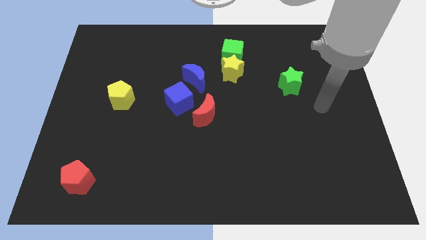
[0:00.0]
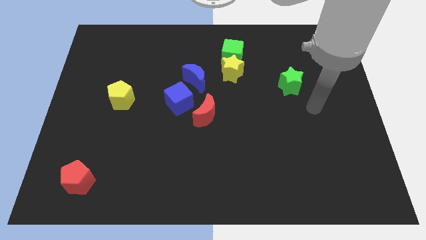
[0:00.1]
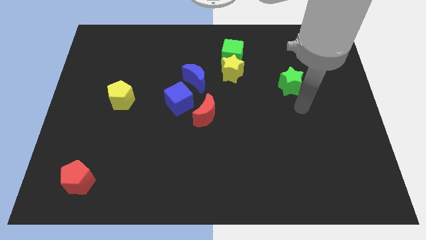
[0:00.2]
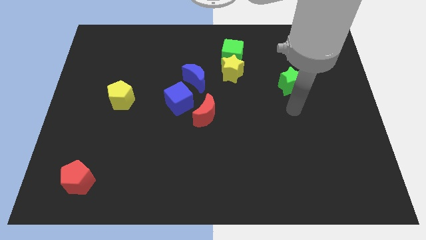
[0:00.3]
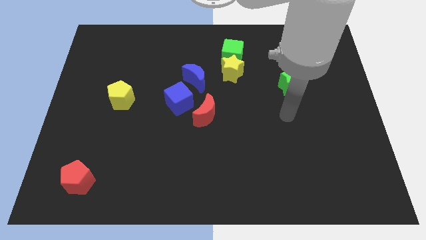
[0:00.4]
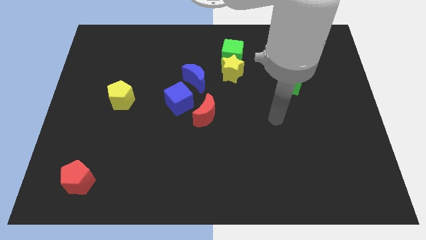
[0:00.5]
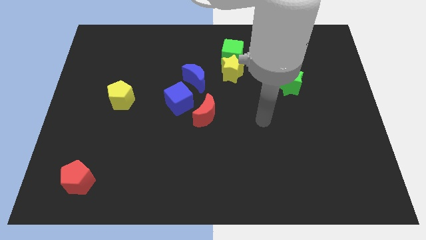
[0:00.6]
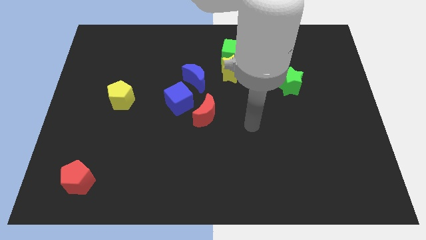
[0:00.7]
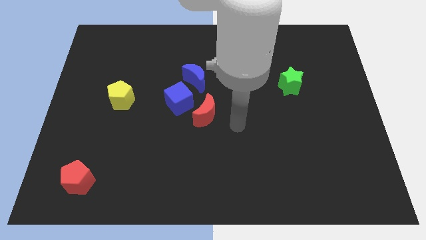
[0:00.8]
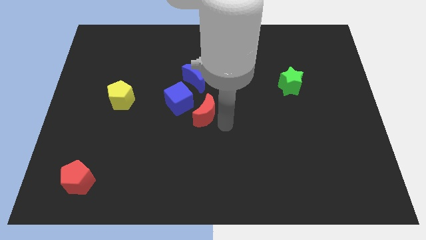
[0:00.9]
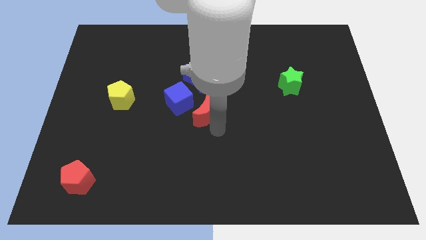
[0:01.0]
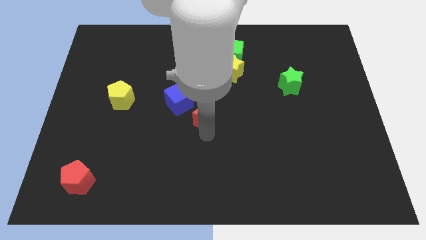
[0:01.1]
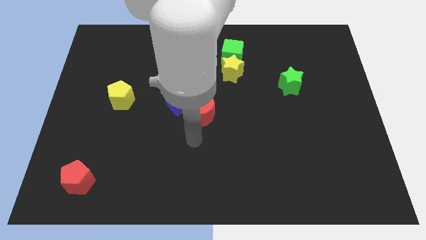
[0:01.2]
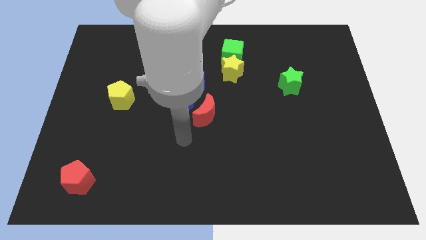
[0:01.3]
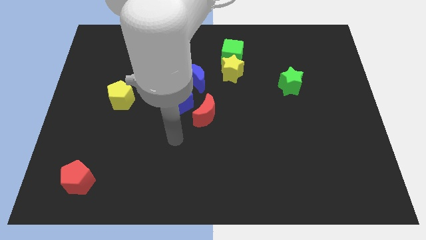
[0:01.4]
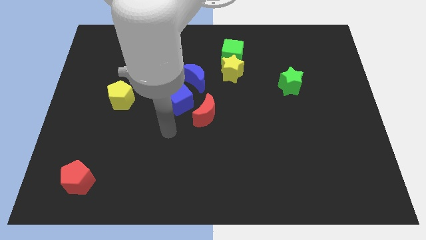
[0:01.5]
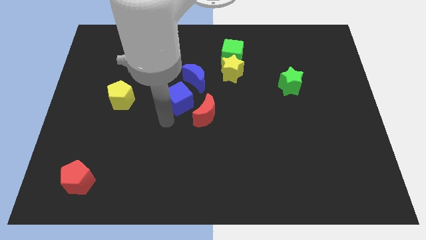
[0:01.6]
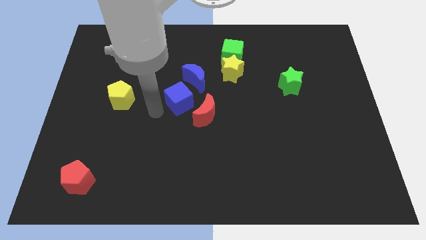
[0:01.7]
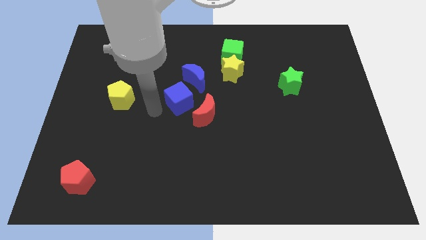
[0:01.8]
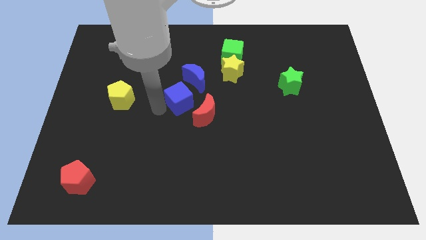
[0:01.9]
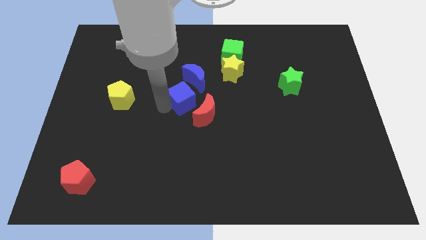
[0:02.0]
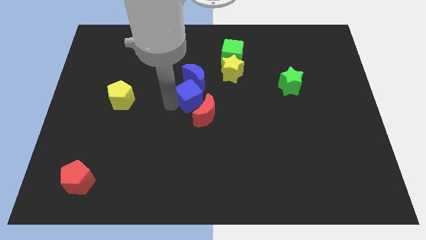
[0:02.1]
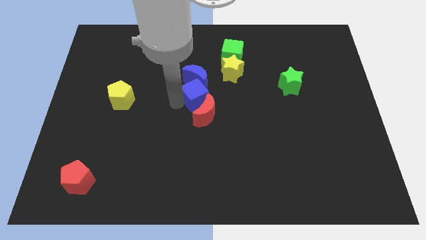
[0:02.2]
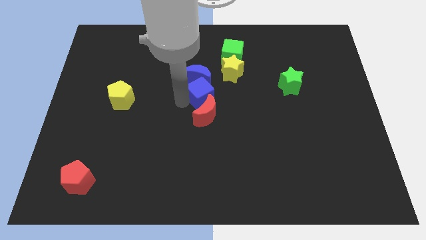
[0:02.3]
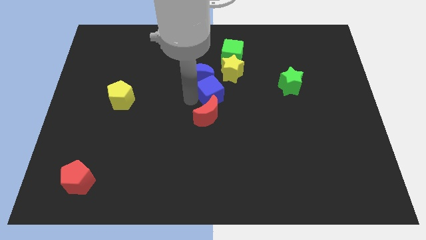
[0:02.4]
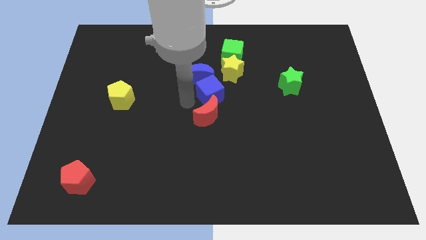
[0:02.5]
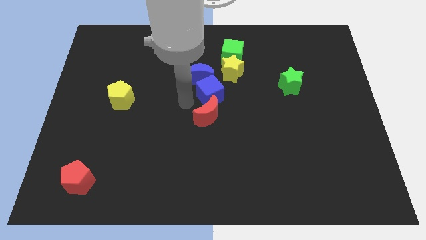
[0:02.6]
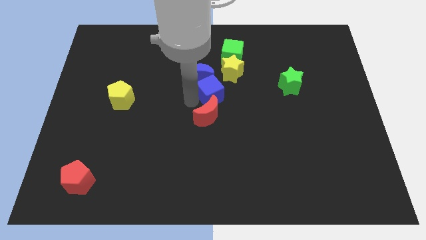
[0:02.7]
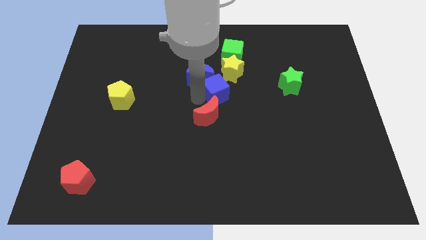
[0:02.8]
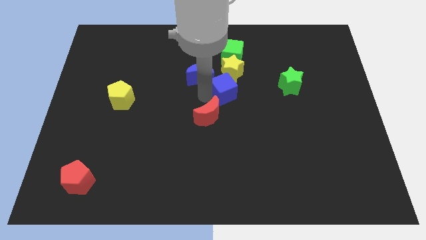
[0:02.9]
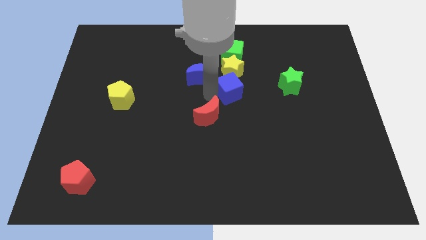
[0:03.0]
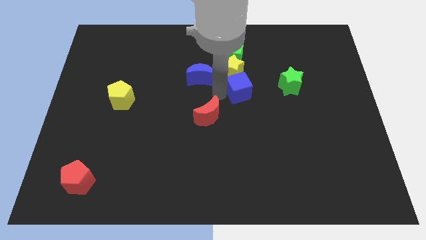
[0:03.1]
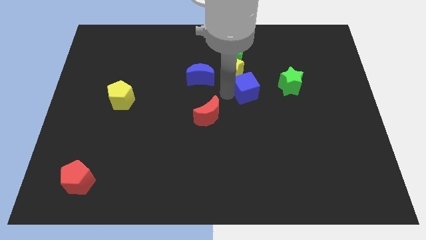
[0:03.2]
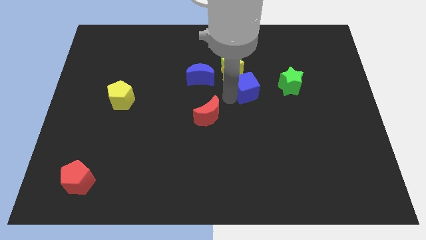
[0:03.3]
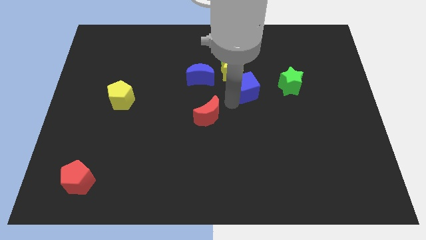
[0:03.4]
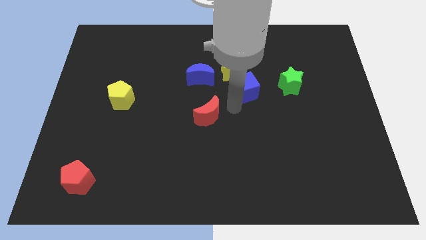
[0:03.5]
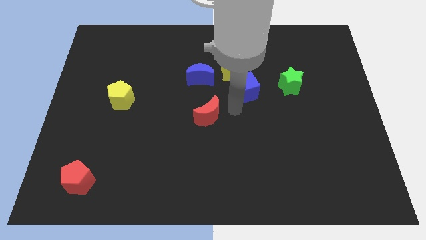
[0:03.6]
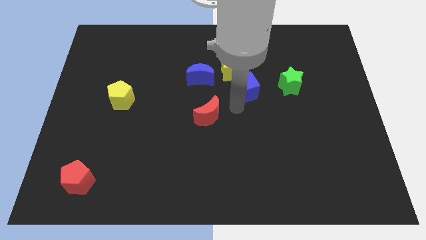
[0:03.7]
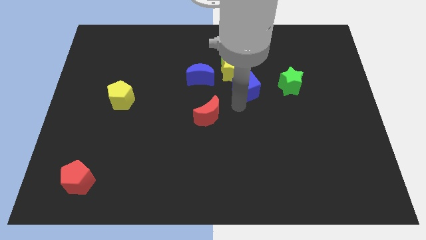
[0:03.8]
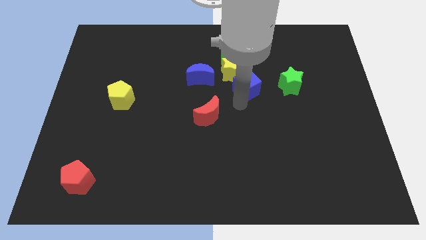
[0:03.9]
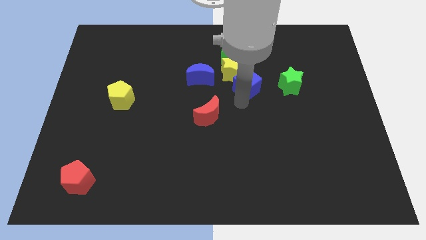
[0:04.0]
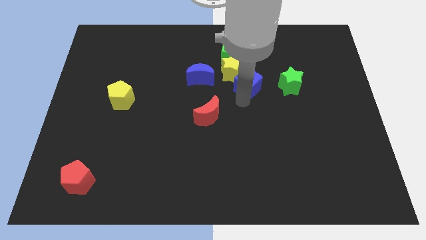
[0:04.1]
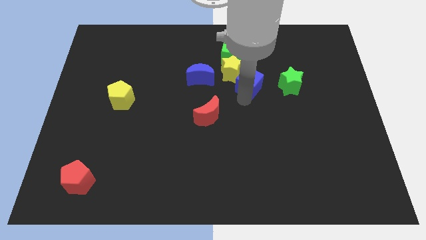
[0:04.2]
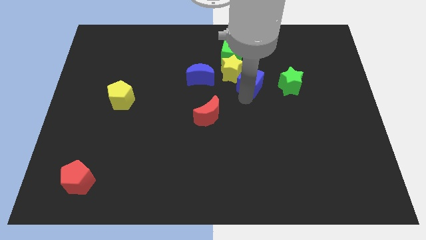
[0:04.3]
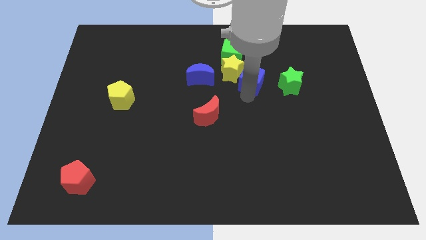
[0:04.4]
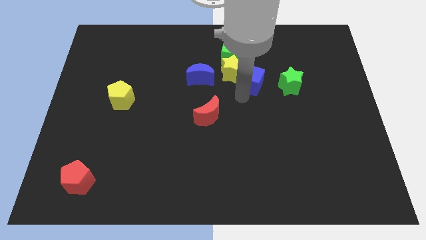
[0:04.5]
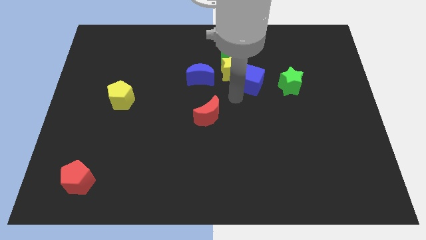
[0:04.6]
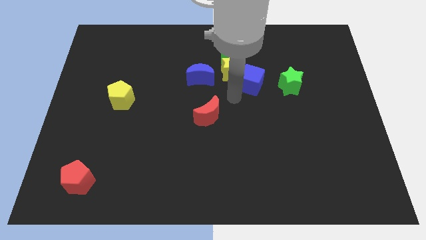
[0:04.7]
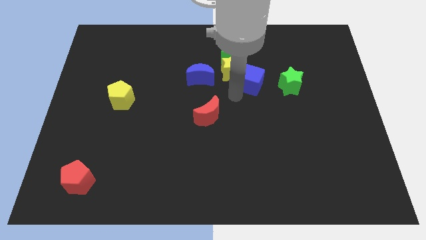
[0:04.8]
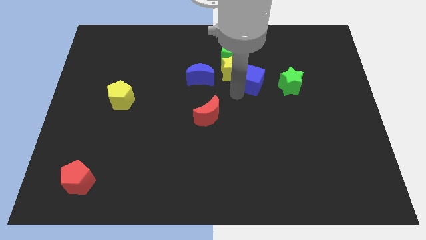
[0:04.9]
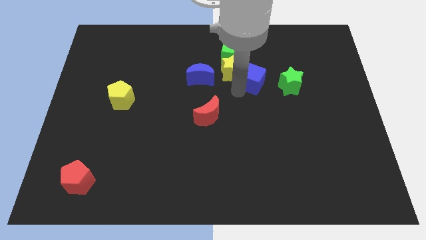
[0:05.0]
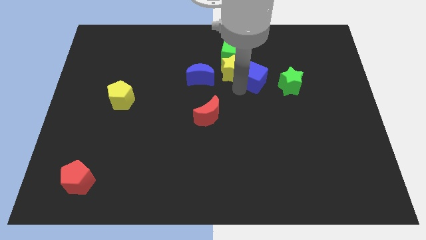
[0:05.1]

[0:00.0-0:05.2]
slide the blue cube to the top left of the green star

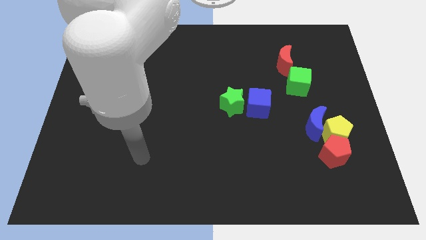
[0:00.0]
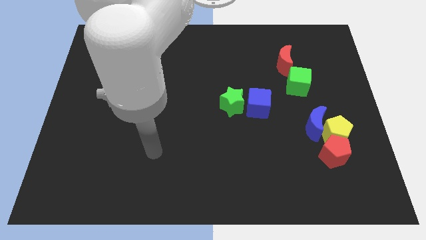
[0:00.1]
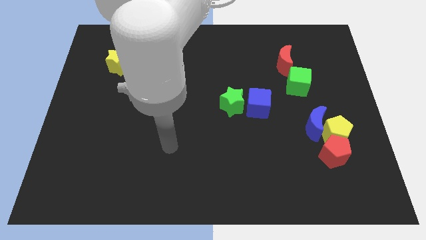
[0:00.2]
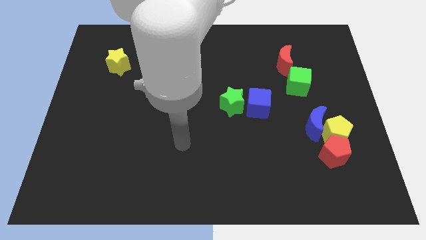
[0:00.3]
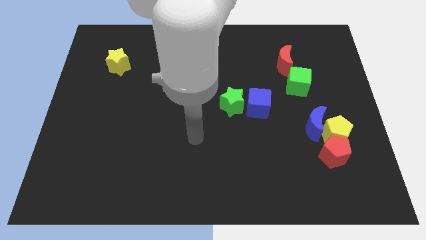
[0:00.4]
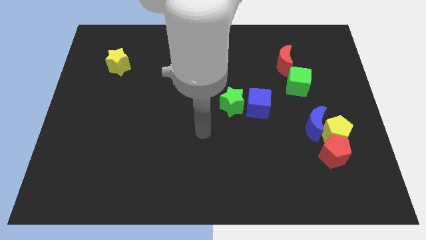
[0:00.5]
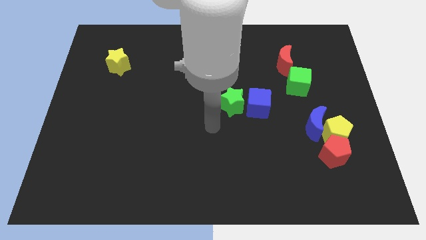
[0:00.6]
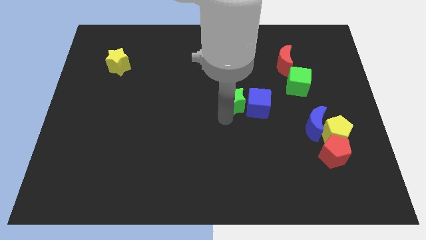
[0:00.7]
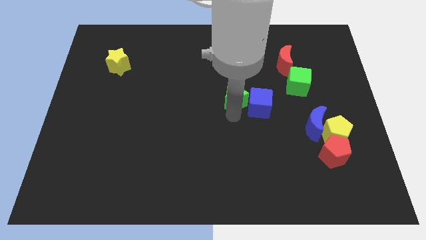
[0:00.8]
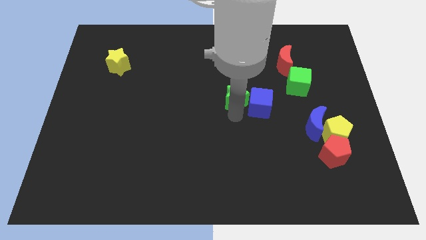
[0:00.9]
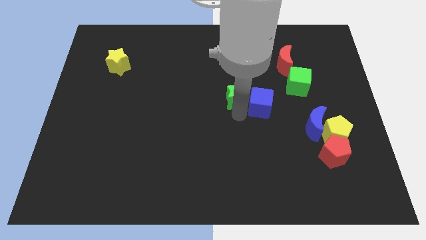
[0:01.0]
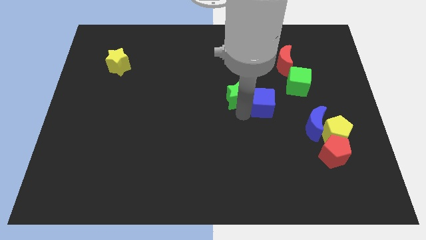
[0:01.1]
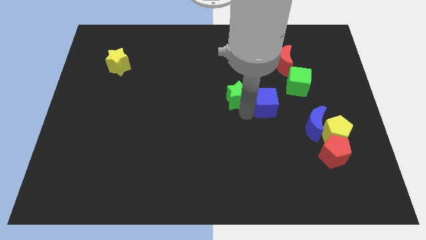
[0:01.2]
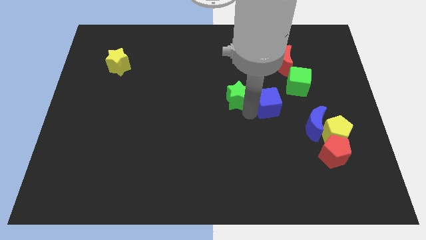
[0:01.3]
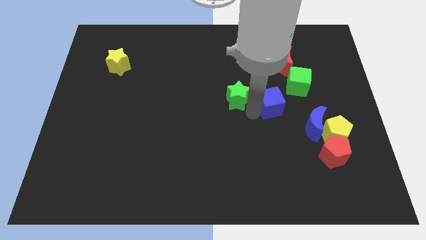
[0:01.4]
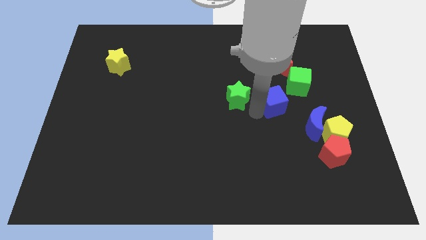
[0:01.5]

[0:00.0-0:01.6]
slide the blue cube to the bottom of the red moon

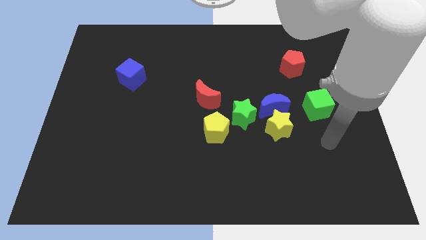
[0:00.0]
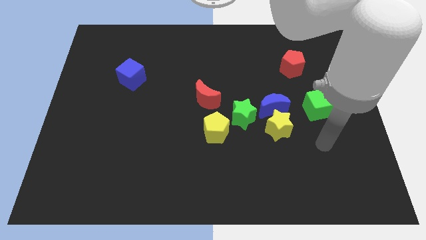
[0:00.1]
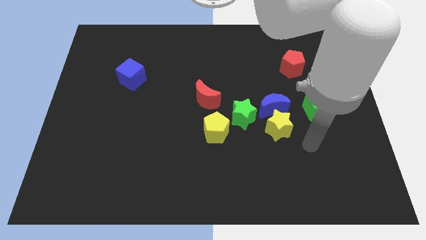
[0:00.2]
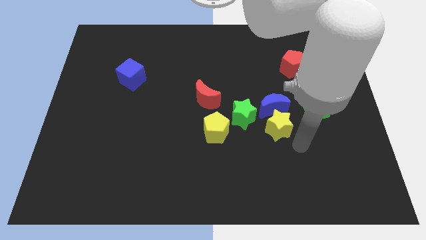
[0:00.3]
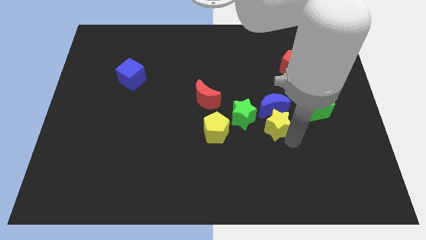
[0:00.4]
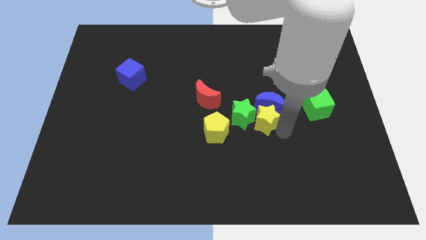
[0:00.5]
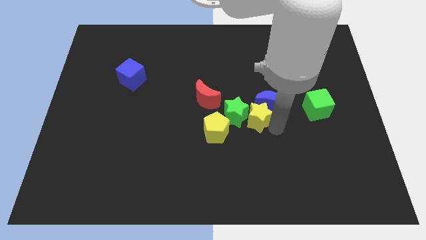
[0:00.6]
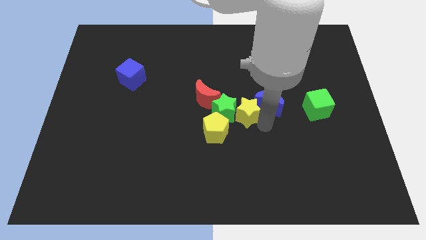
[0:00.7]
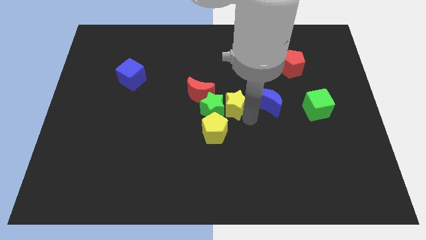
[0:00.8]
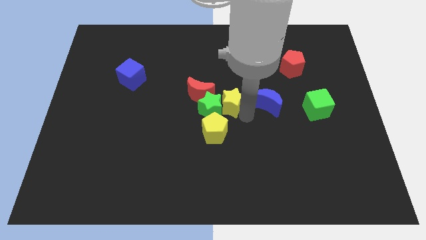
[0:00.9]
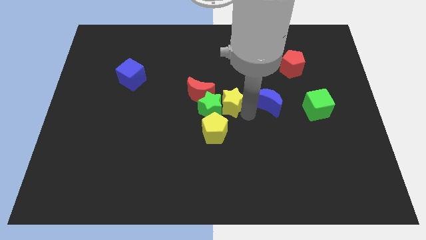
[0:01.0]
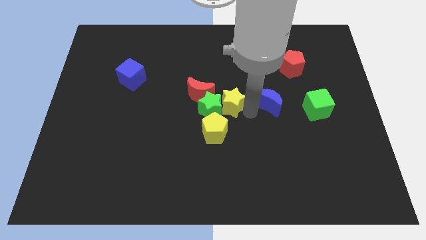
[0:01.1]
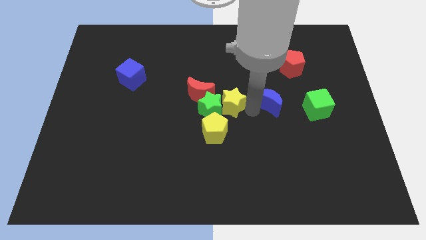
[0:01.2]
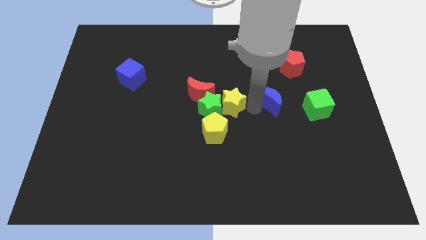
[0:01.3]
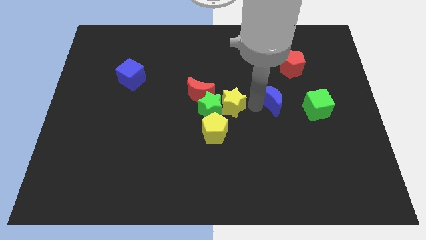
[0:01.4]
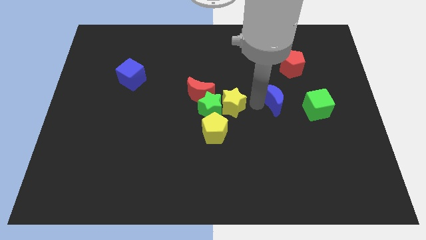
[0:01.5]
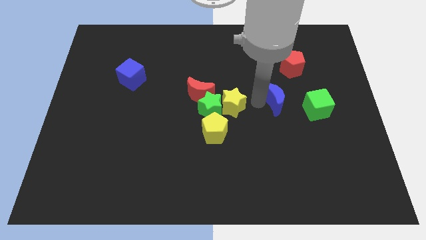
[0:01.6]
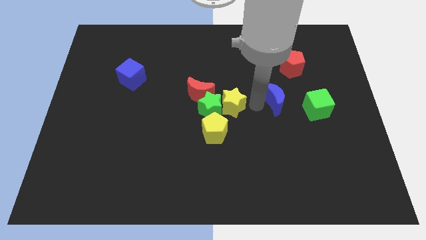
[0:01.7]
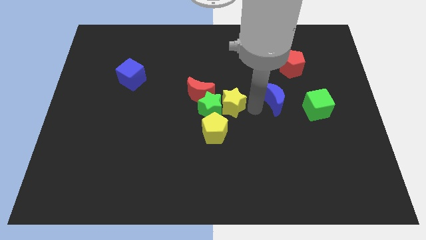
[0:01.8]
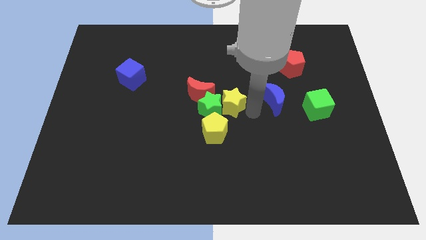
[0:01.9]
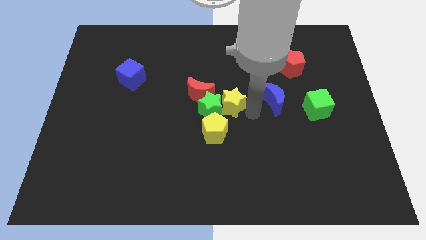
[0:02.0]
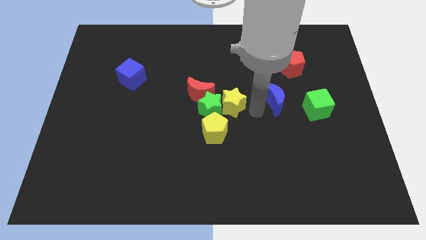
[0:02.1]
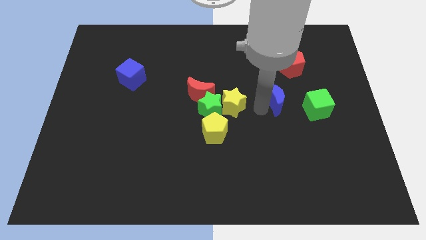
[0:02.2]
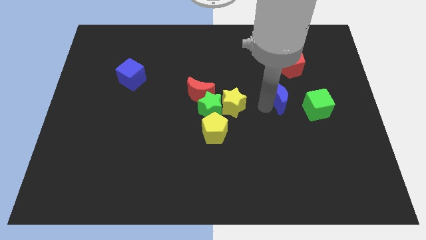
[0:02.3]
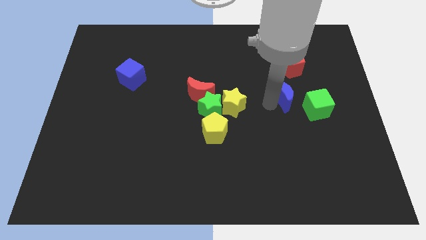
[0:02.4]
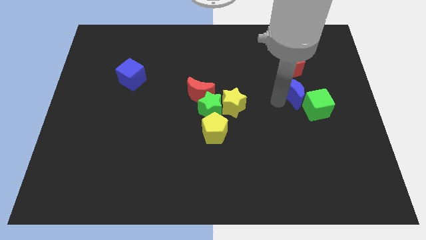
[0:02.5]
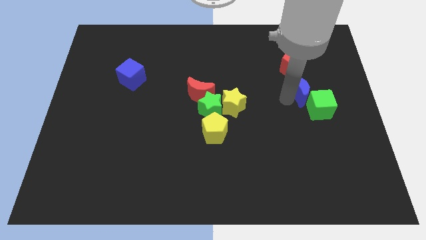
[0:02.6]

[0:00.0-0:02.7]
put the blue moon to the top side of the green cube
